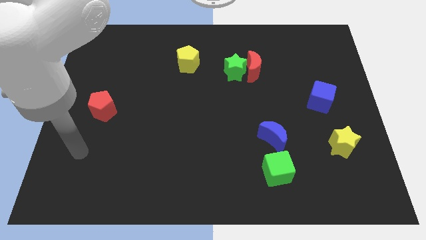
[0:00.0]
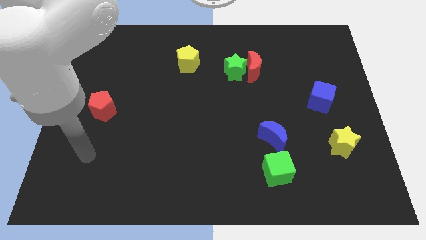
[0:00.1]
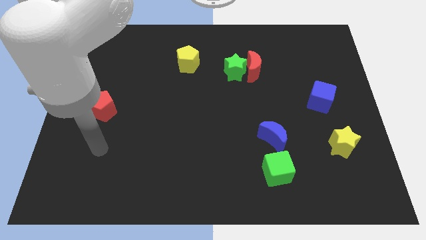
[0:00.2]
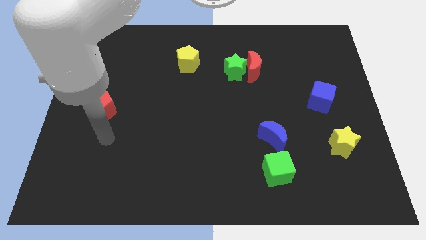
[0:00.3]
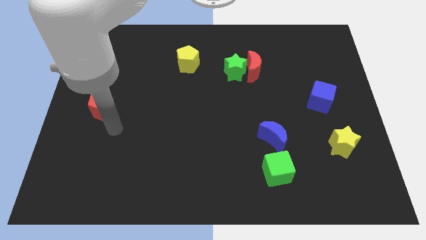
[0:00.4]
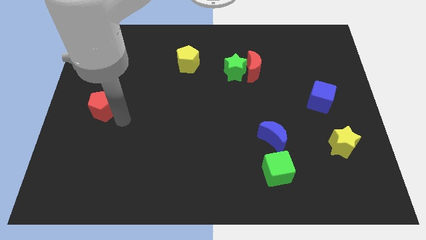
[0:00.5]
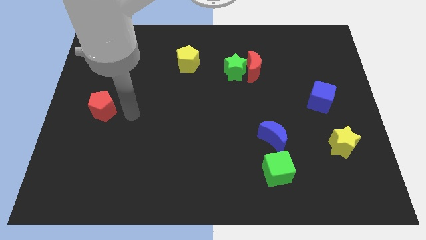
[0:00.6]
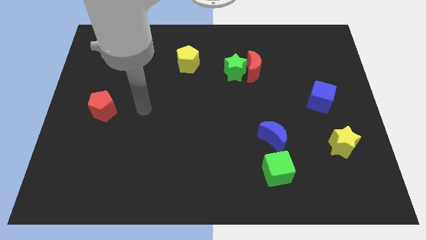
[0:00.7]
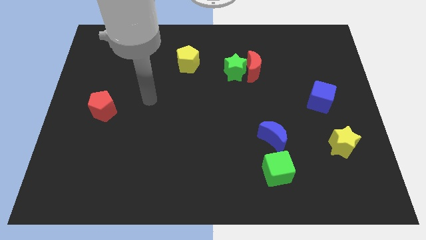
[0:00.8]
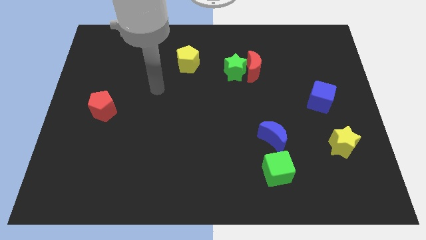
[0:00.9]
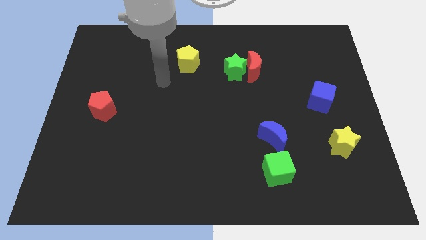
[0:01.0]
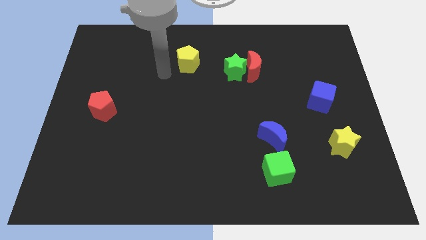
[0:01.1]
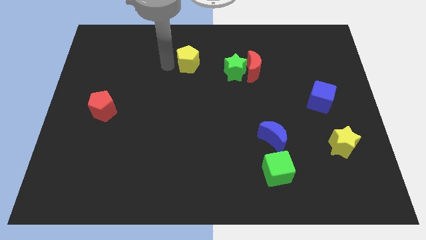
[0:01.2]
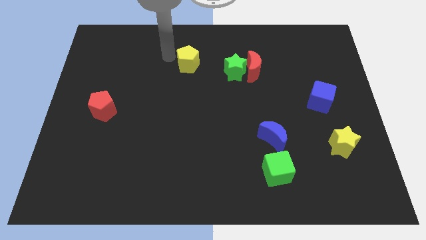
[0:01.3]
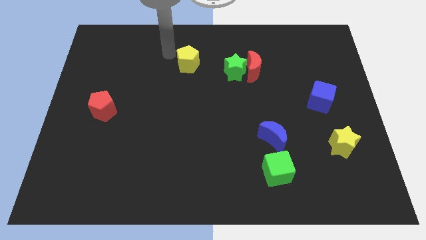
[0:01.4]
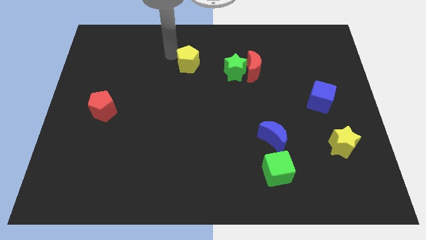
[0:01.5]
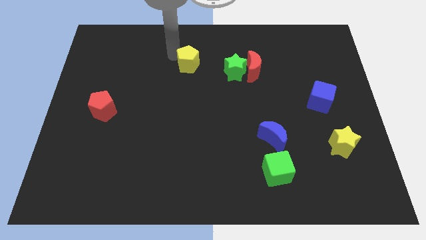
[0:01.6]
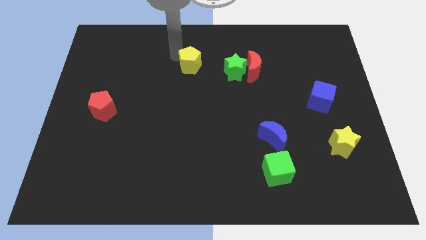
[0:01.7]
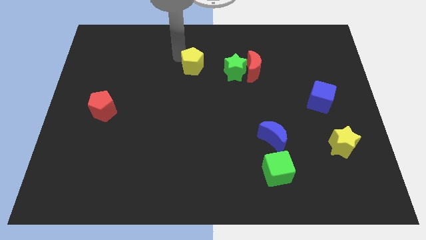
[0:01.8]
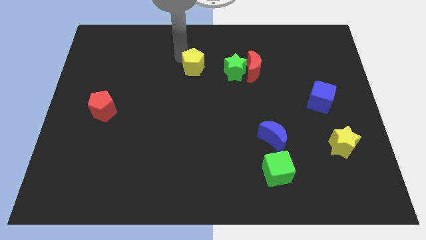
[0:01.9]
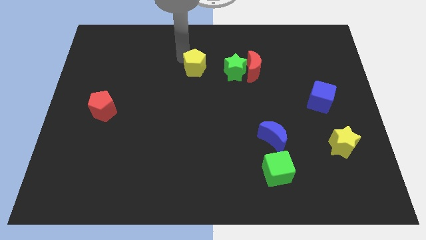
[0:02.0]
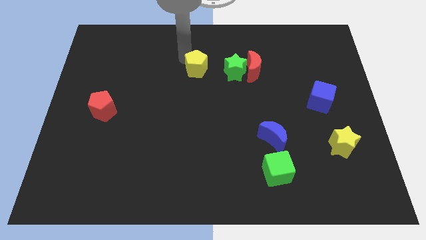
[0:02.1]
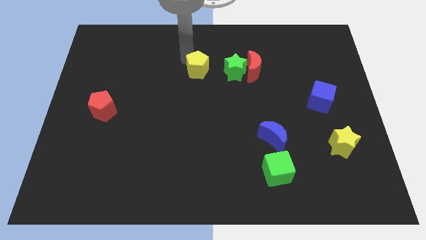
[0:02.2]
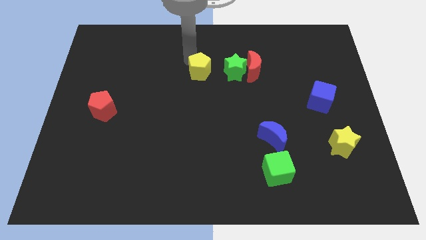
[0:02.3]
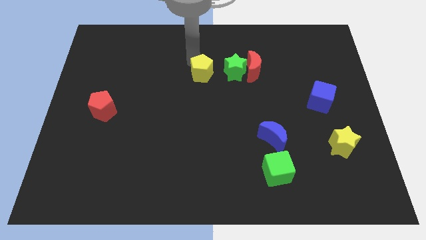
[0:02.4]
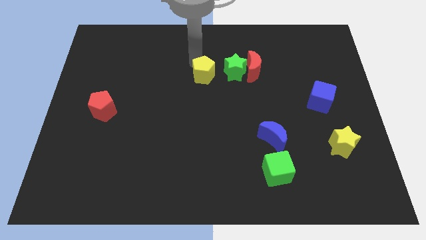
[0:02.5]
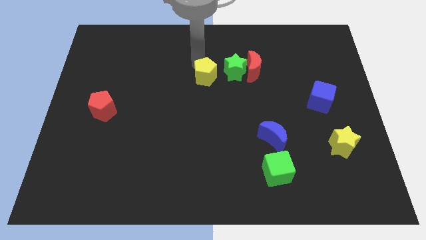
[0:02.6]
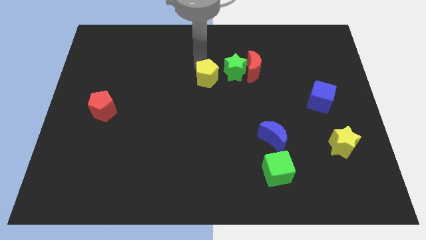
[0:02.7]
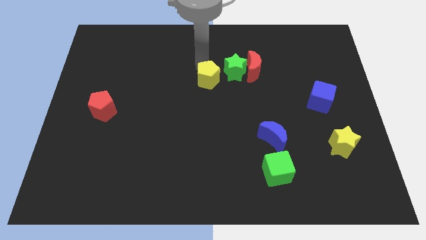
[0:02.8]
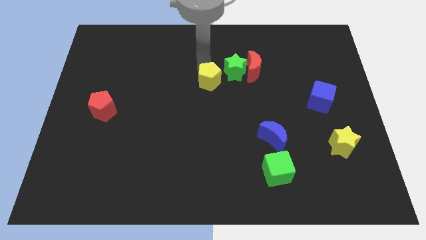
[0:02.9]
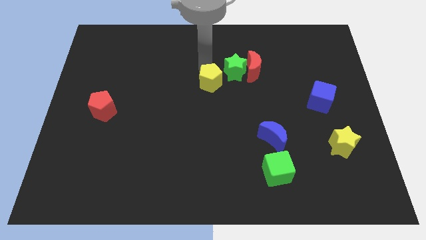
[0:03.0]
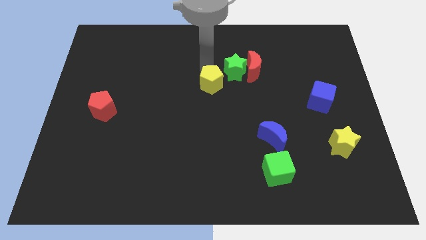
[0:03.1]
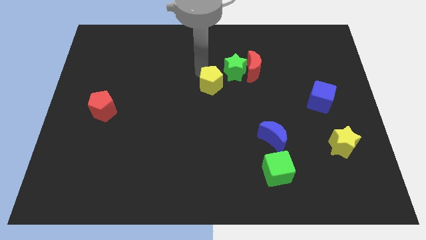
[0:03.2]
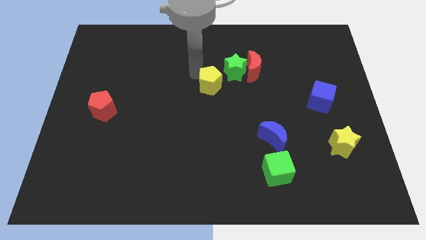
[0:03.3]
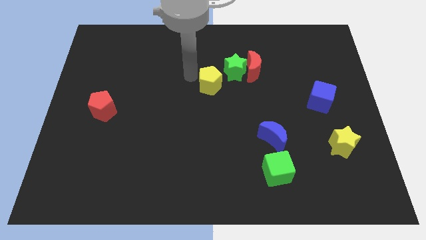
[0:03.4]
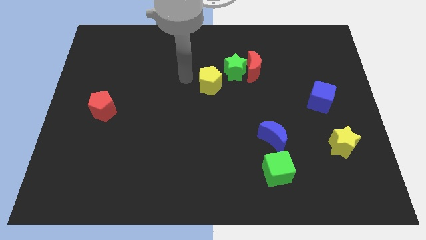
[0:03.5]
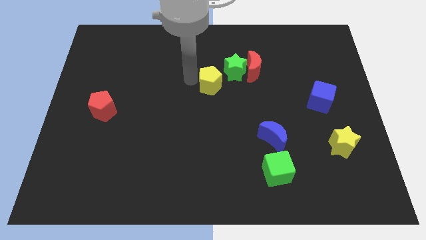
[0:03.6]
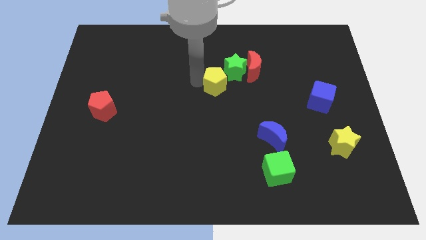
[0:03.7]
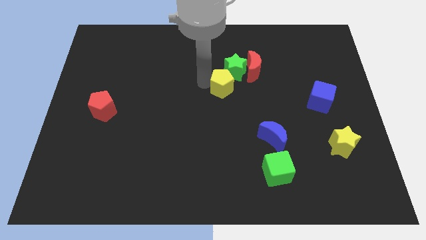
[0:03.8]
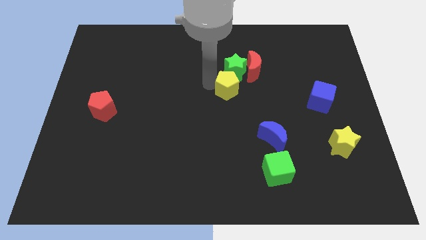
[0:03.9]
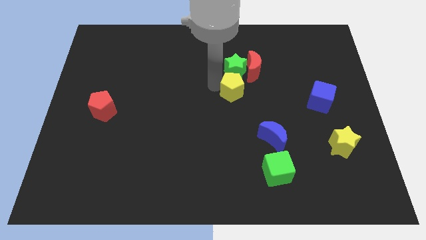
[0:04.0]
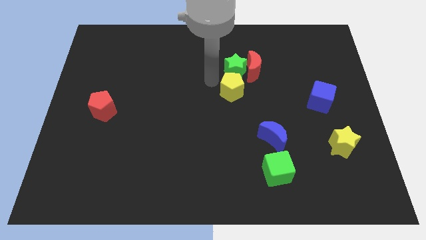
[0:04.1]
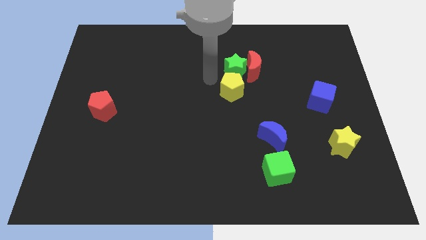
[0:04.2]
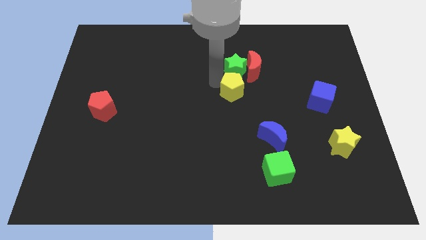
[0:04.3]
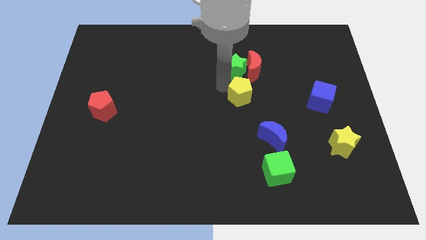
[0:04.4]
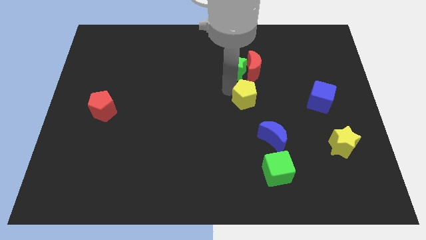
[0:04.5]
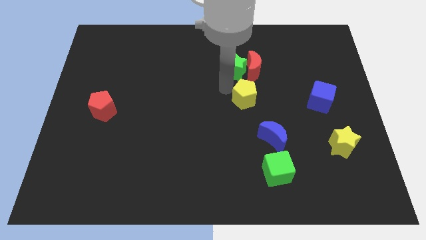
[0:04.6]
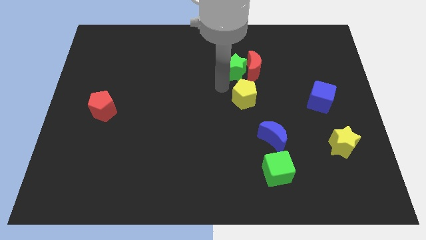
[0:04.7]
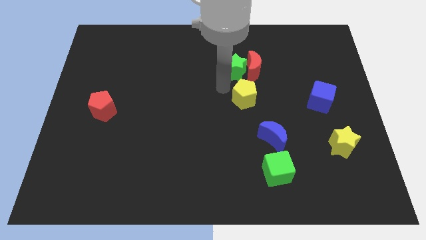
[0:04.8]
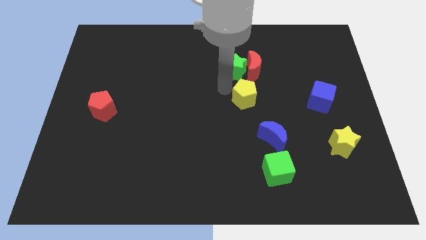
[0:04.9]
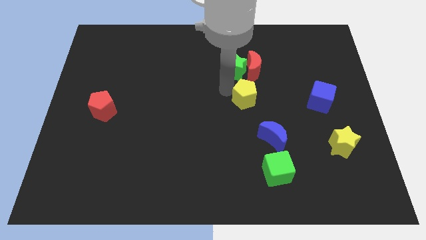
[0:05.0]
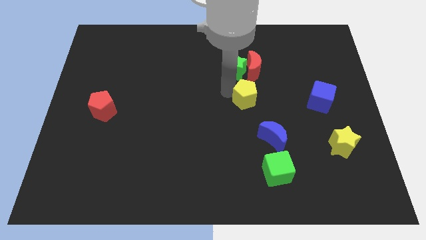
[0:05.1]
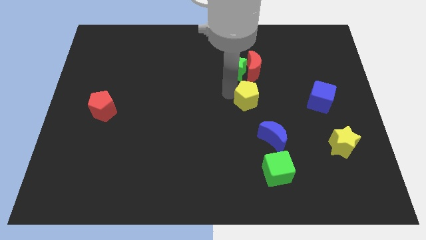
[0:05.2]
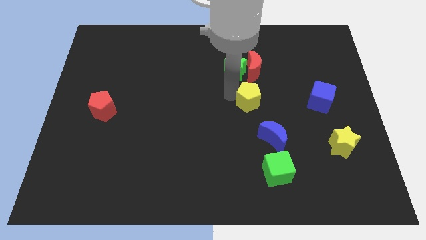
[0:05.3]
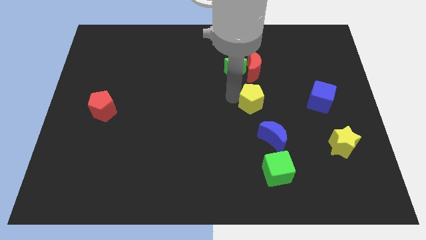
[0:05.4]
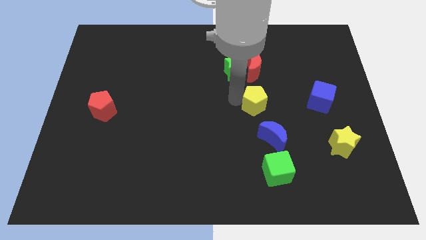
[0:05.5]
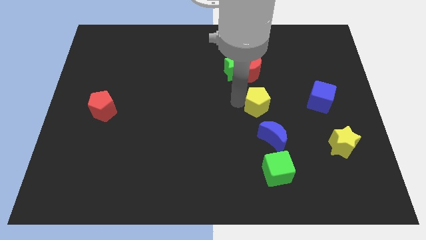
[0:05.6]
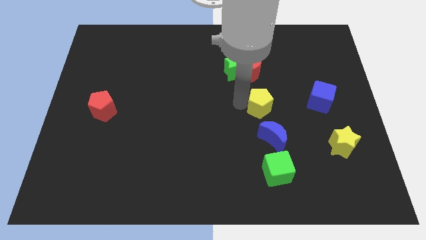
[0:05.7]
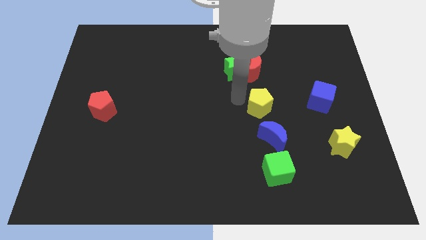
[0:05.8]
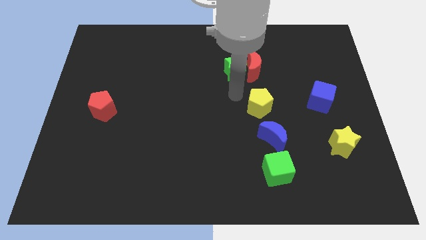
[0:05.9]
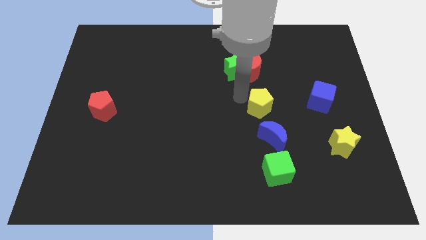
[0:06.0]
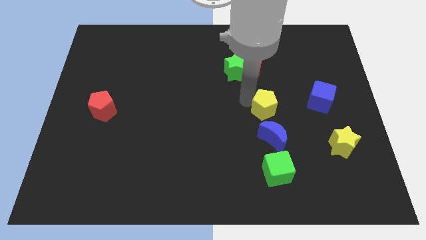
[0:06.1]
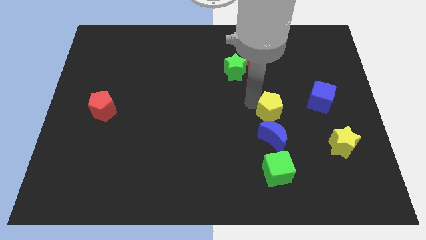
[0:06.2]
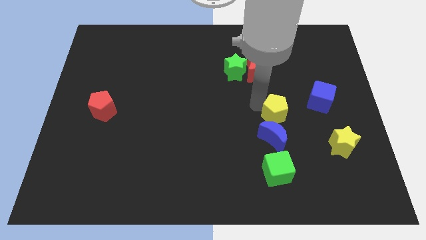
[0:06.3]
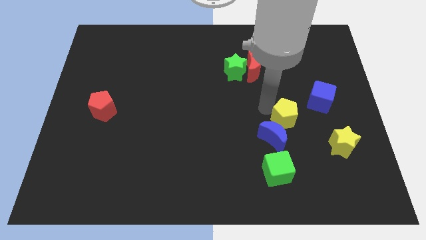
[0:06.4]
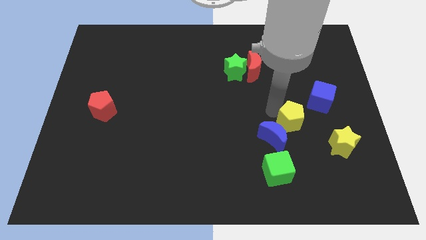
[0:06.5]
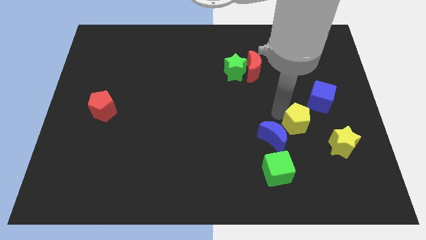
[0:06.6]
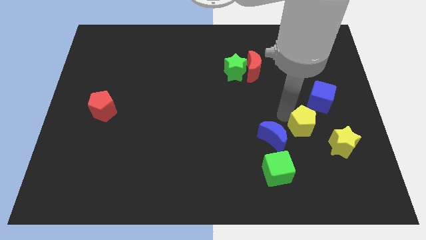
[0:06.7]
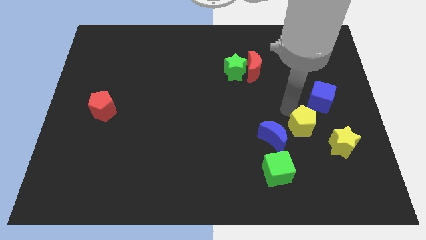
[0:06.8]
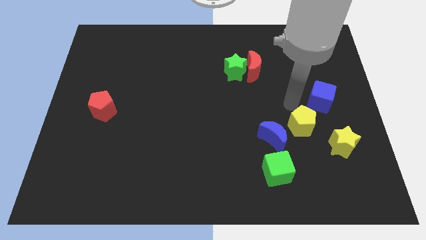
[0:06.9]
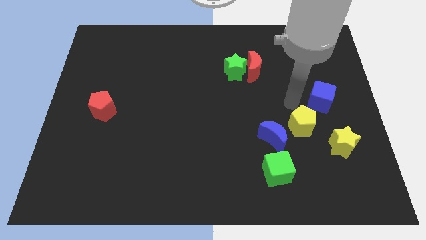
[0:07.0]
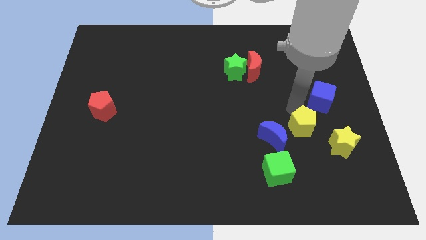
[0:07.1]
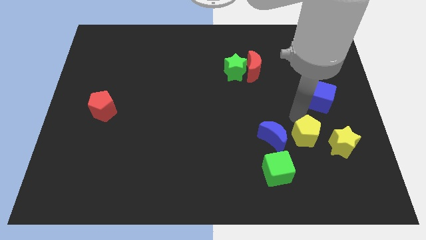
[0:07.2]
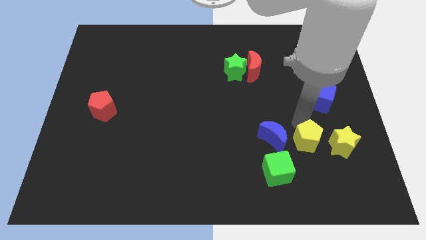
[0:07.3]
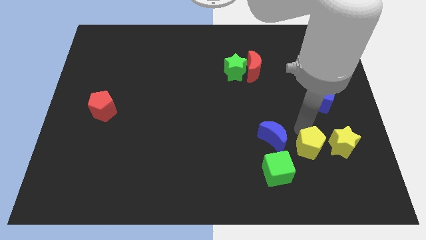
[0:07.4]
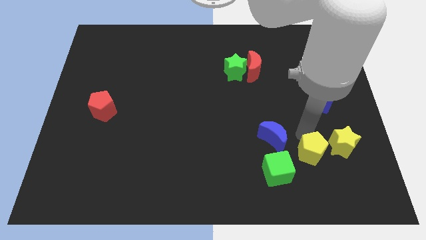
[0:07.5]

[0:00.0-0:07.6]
move the yellow pentagon right of the green cube
